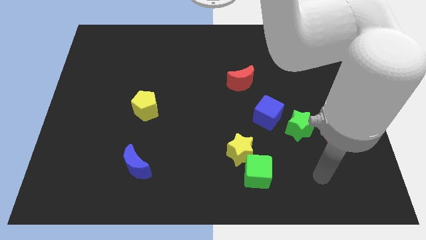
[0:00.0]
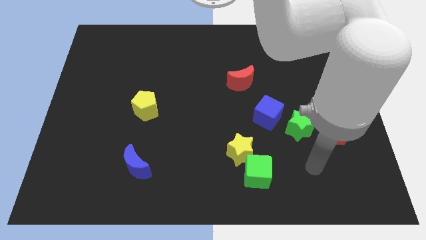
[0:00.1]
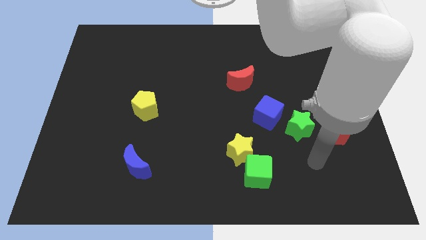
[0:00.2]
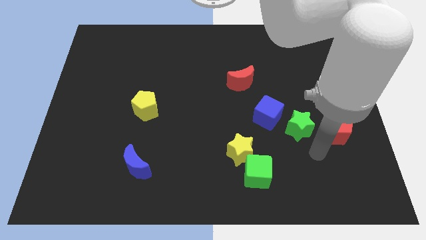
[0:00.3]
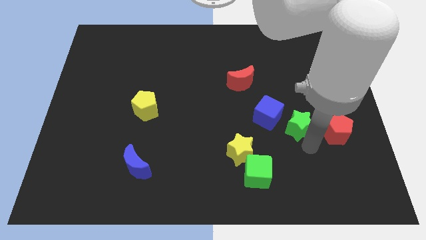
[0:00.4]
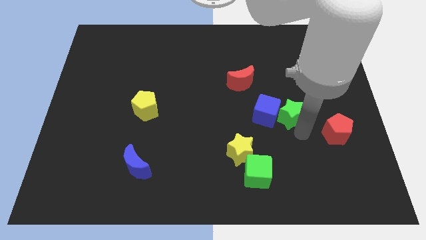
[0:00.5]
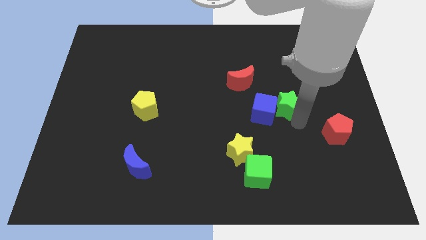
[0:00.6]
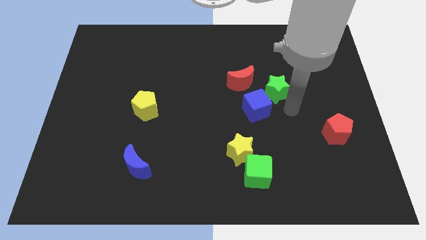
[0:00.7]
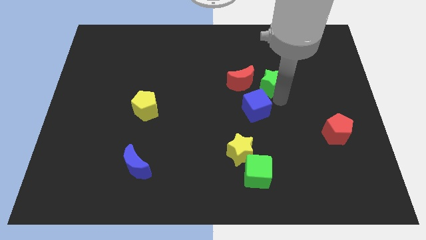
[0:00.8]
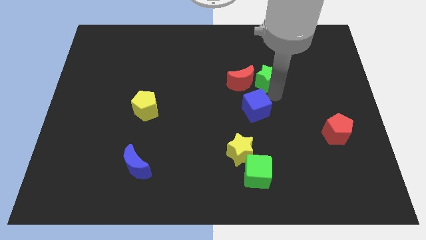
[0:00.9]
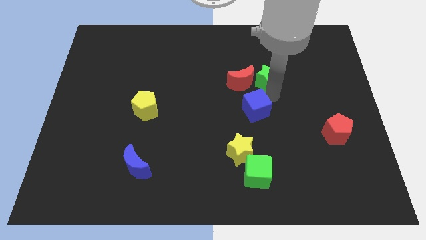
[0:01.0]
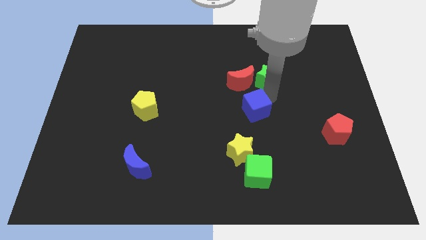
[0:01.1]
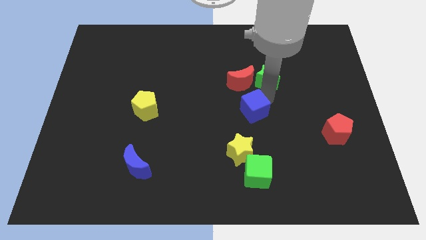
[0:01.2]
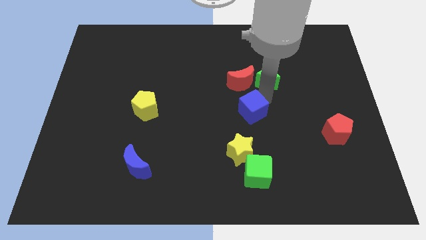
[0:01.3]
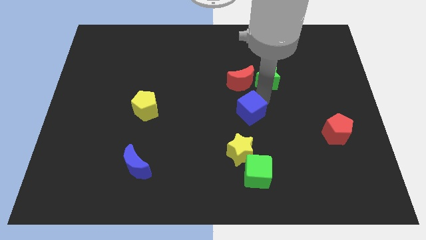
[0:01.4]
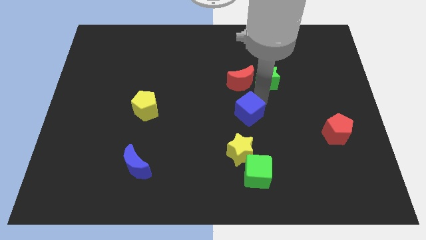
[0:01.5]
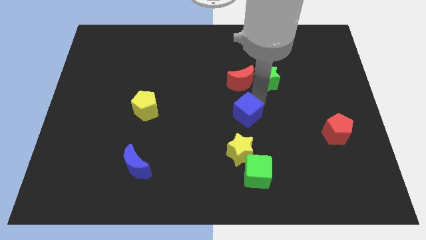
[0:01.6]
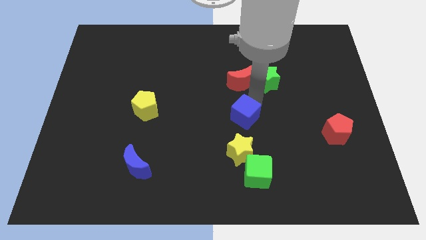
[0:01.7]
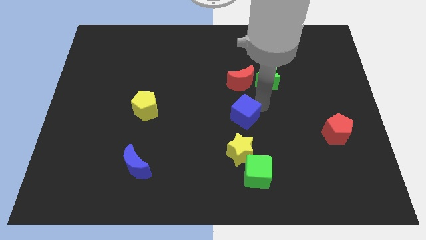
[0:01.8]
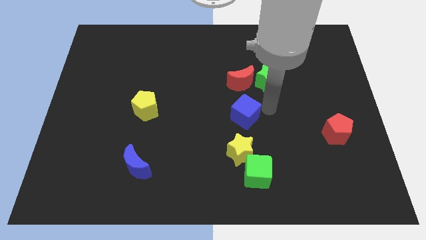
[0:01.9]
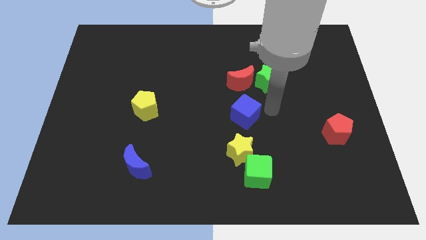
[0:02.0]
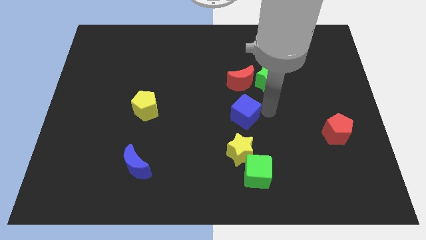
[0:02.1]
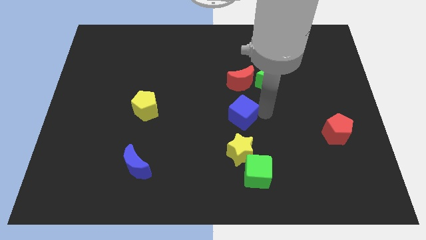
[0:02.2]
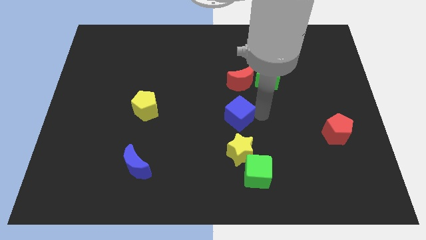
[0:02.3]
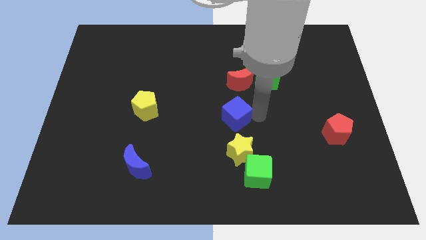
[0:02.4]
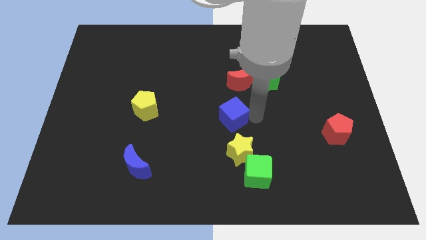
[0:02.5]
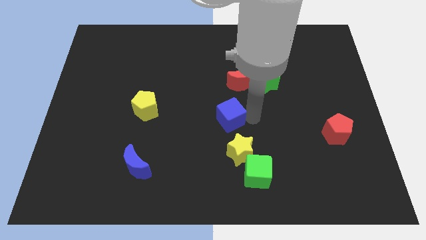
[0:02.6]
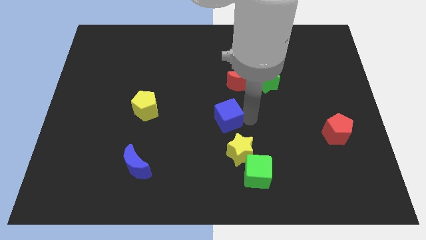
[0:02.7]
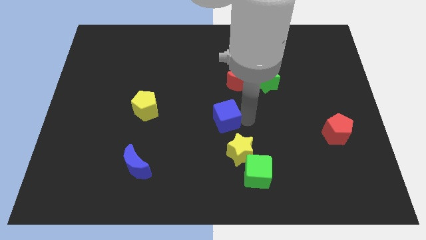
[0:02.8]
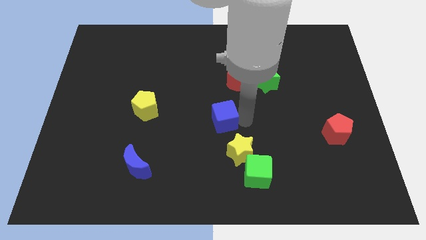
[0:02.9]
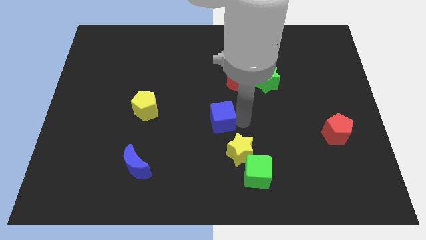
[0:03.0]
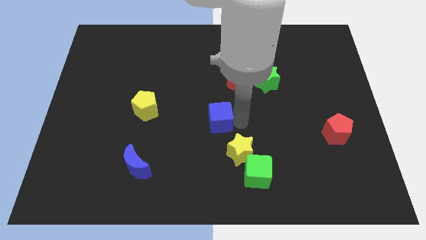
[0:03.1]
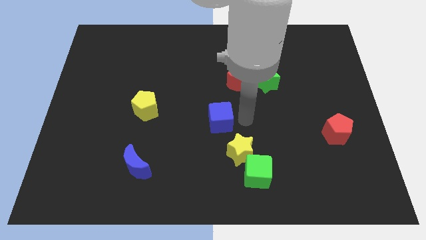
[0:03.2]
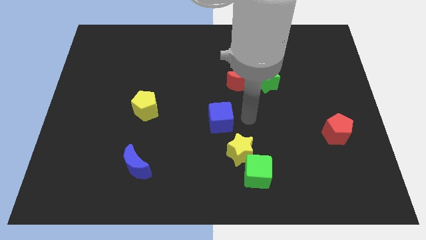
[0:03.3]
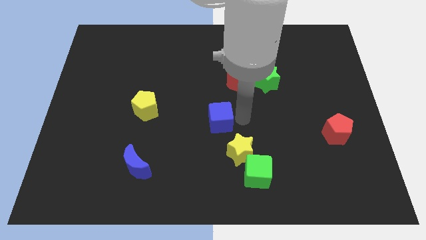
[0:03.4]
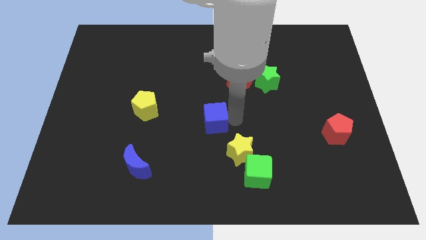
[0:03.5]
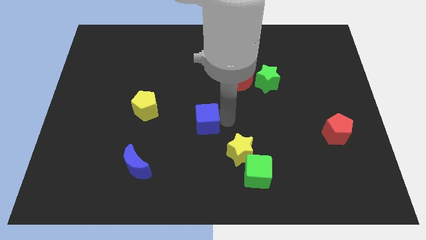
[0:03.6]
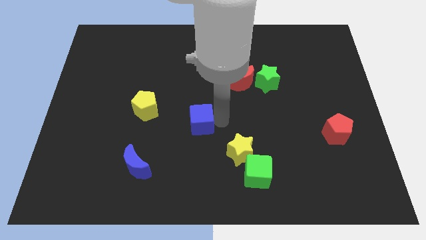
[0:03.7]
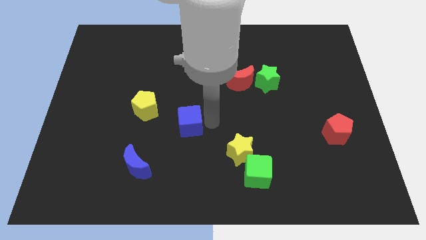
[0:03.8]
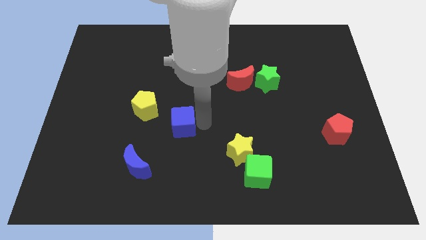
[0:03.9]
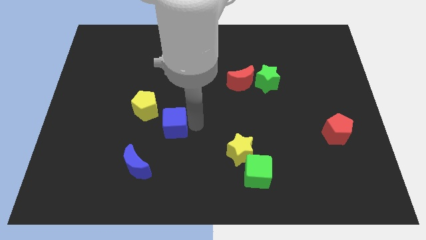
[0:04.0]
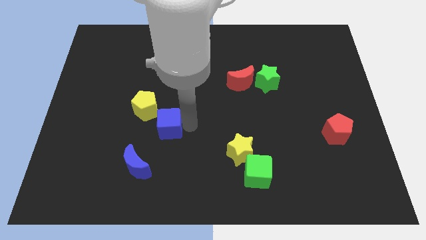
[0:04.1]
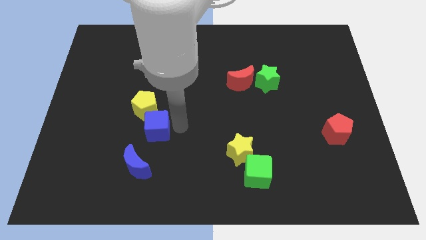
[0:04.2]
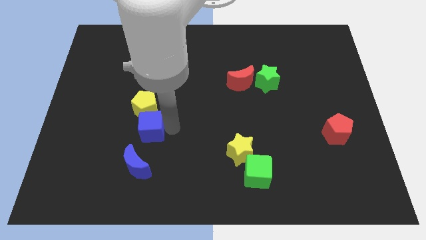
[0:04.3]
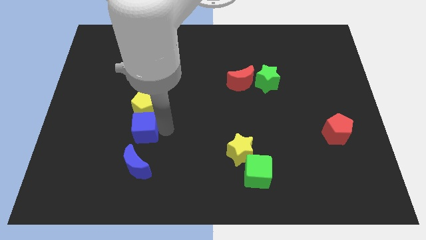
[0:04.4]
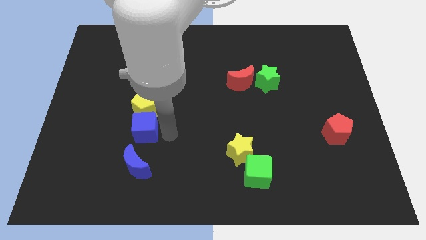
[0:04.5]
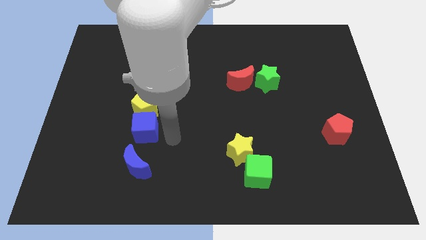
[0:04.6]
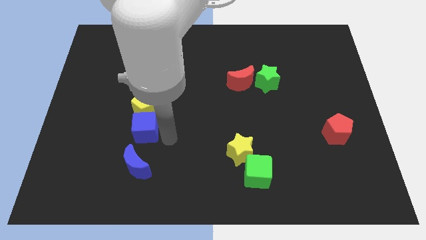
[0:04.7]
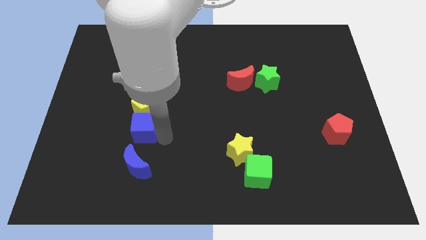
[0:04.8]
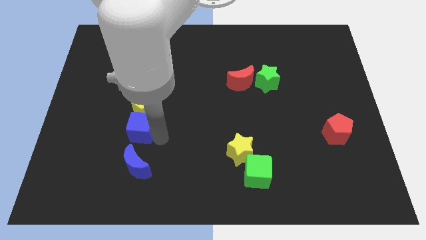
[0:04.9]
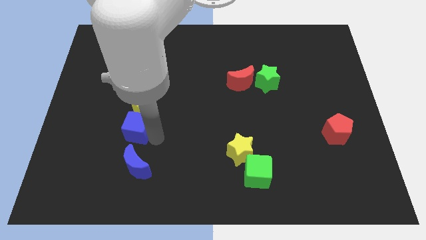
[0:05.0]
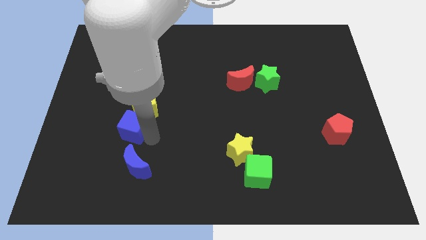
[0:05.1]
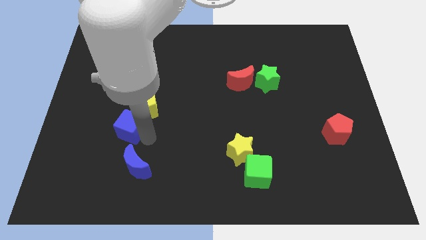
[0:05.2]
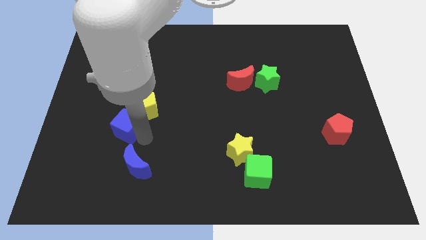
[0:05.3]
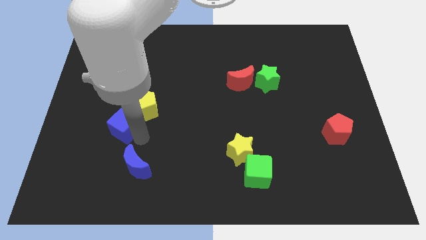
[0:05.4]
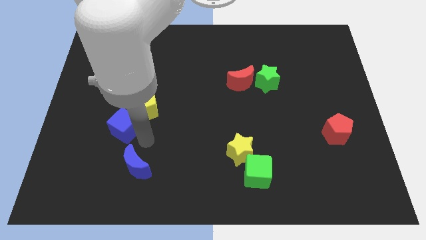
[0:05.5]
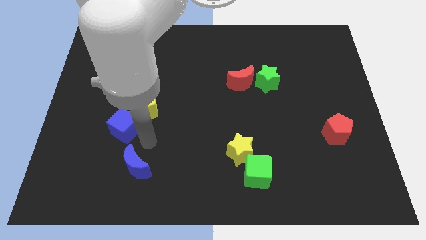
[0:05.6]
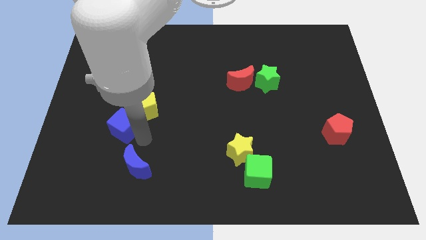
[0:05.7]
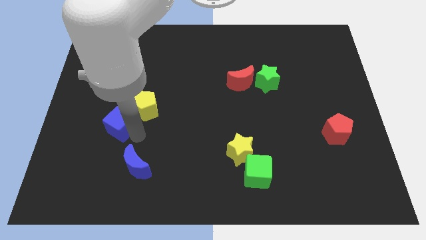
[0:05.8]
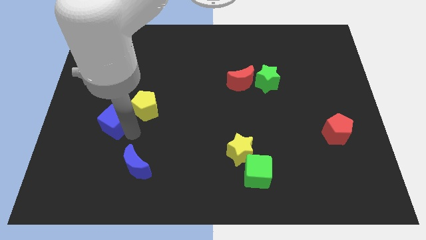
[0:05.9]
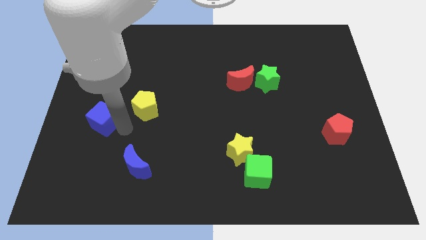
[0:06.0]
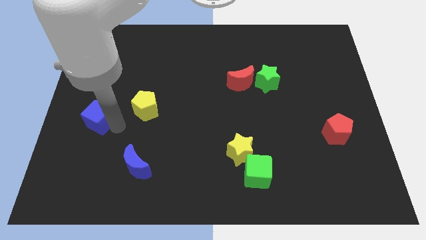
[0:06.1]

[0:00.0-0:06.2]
slide the blue cube to the left side

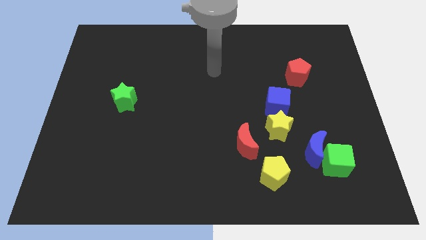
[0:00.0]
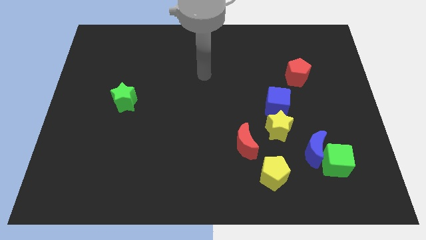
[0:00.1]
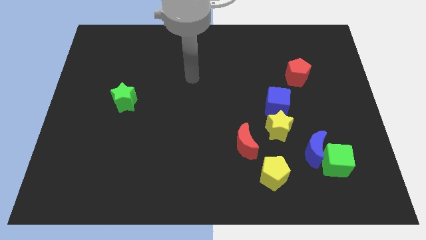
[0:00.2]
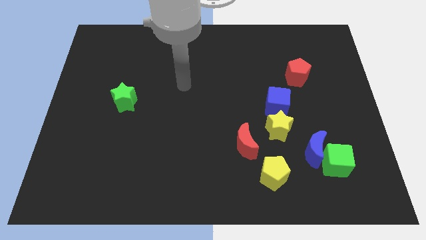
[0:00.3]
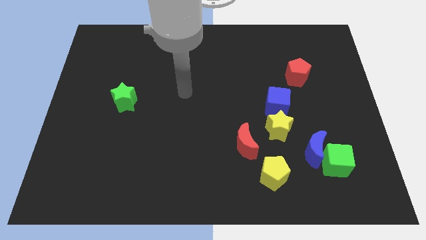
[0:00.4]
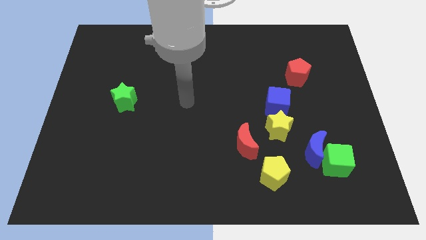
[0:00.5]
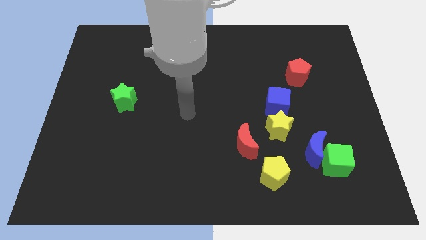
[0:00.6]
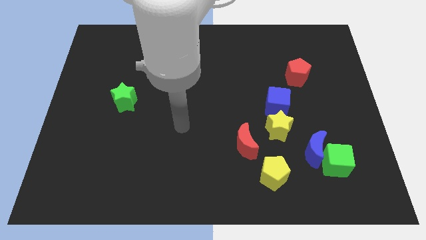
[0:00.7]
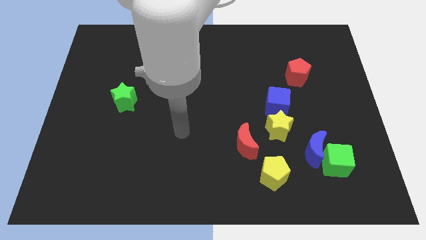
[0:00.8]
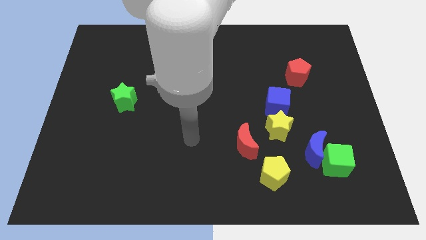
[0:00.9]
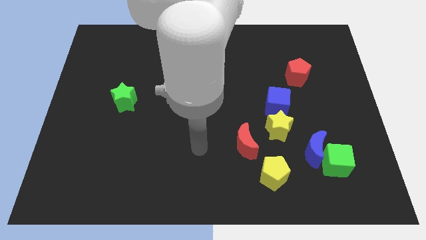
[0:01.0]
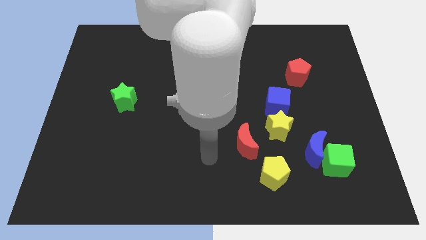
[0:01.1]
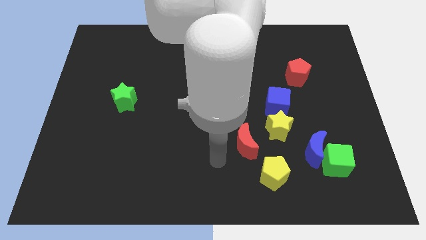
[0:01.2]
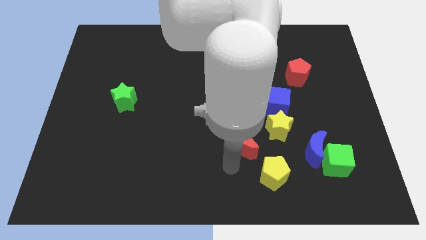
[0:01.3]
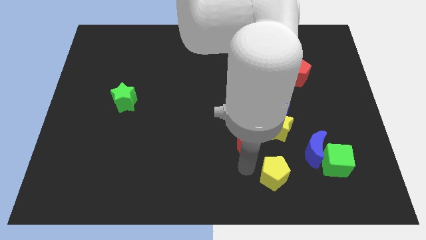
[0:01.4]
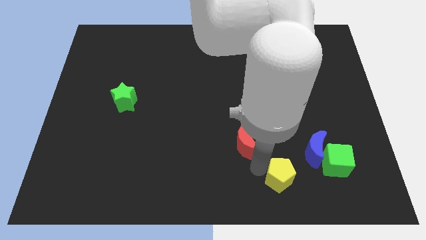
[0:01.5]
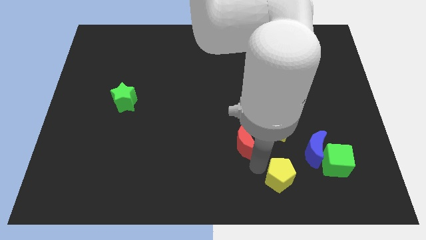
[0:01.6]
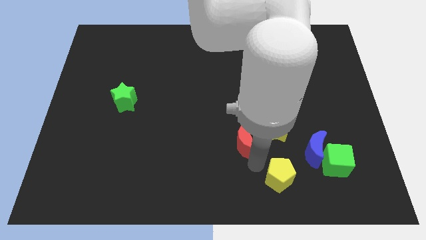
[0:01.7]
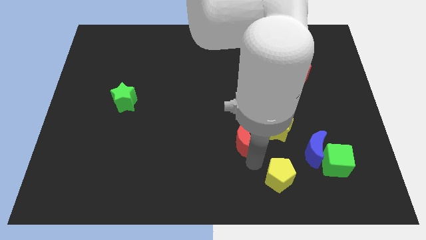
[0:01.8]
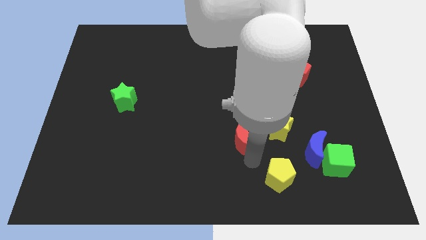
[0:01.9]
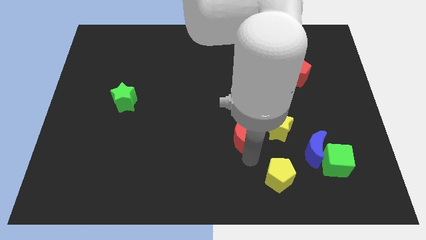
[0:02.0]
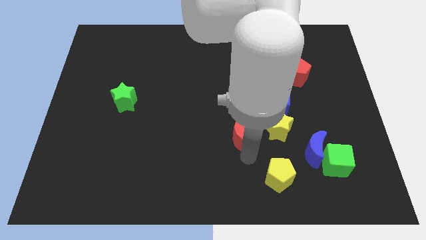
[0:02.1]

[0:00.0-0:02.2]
push the red moon to the middle

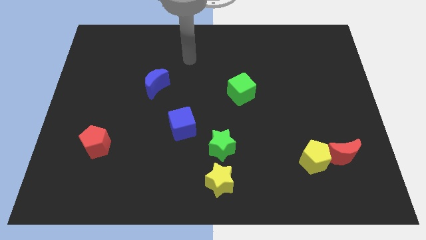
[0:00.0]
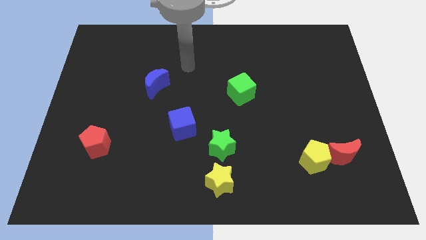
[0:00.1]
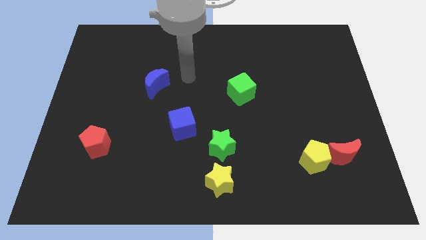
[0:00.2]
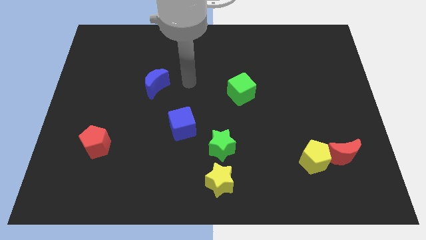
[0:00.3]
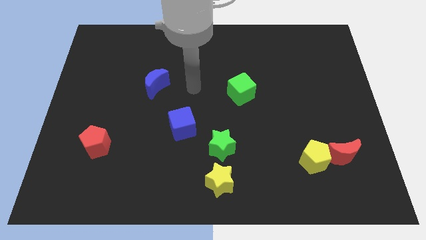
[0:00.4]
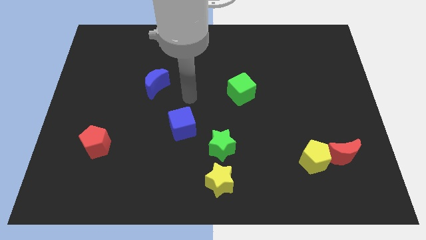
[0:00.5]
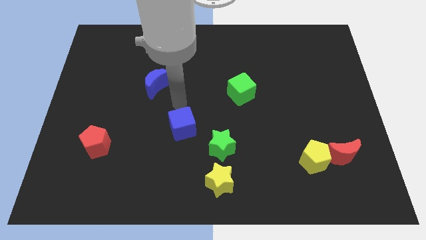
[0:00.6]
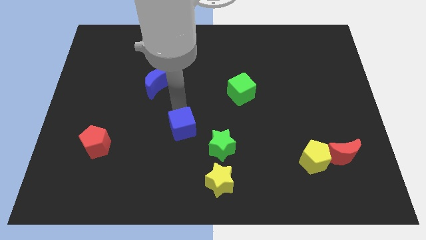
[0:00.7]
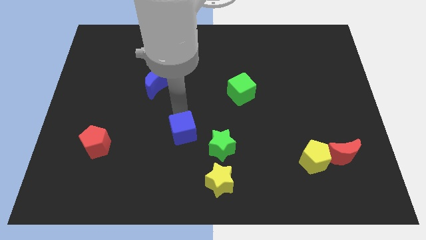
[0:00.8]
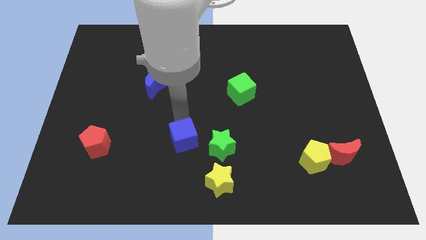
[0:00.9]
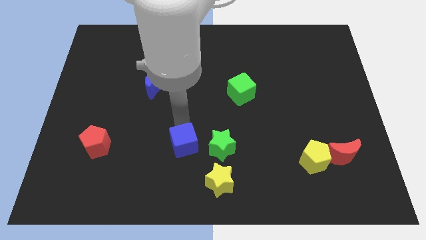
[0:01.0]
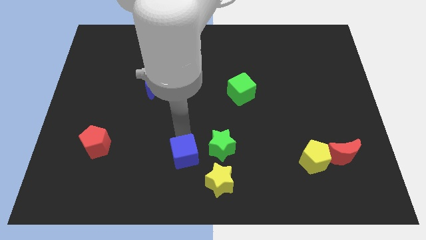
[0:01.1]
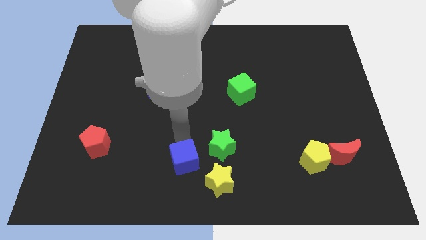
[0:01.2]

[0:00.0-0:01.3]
slide the blue cube to the bottom side
